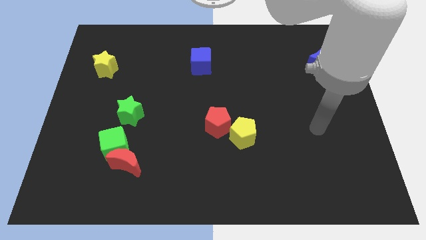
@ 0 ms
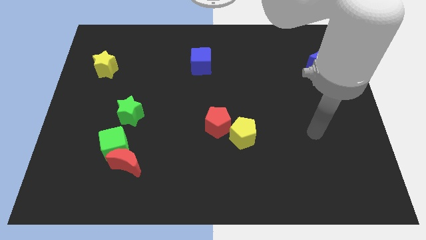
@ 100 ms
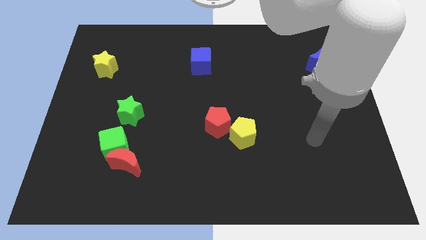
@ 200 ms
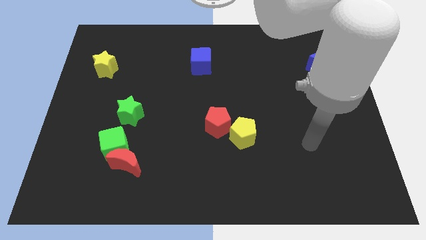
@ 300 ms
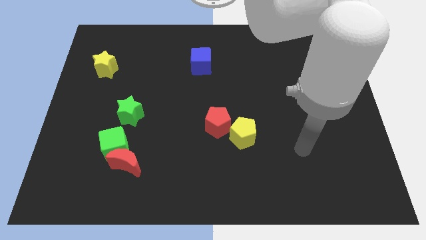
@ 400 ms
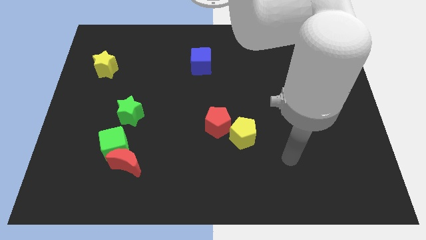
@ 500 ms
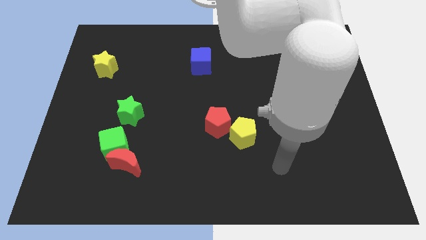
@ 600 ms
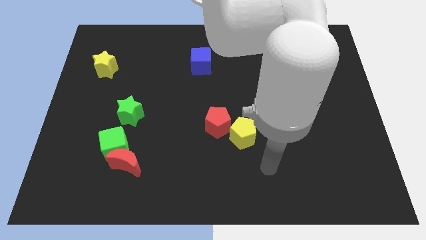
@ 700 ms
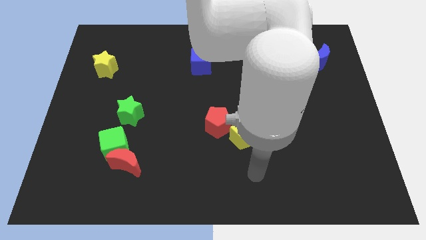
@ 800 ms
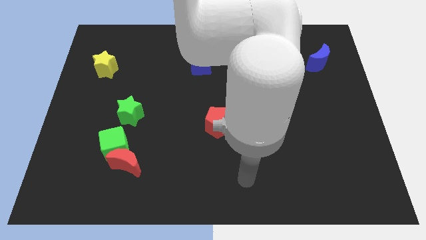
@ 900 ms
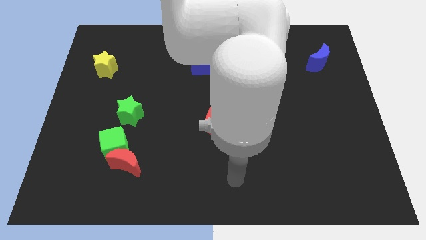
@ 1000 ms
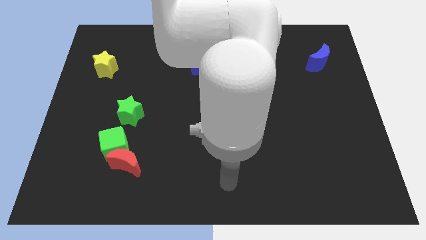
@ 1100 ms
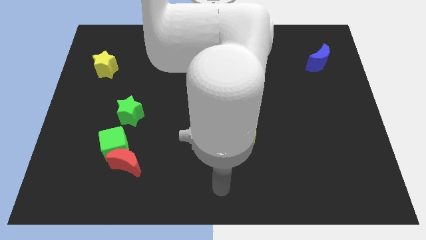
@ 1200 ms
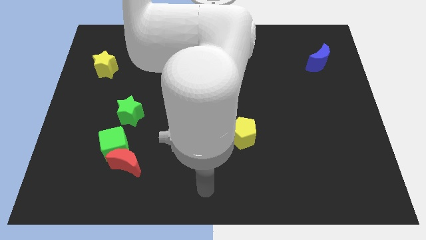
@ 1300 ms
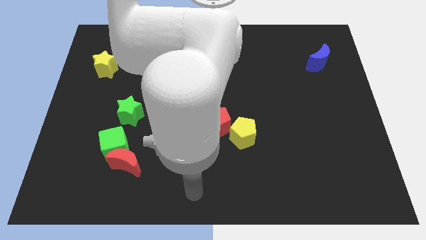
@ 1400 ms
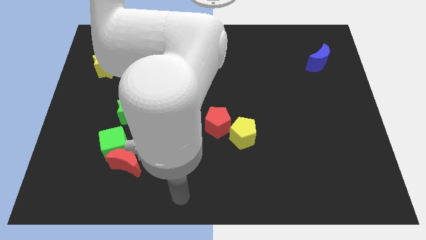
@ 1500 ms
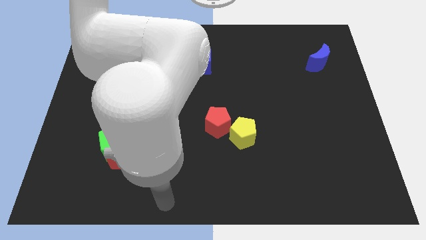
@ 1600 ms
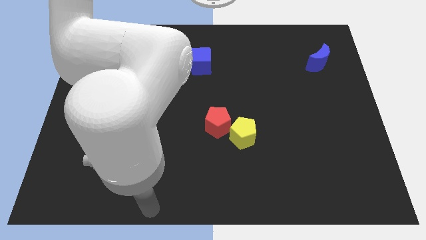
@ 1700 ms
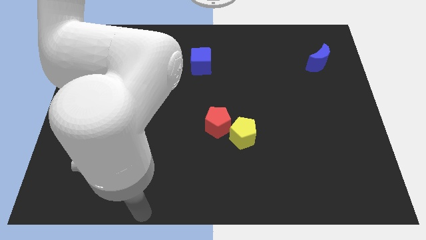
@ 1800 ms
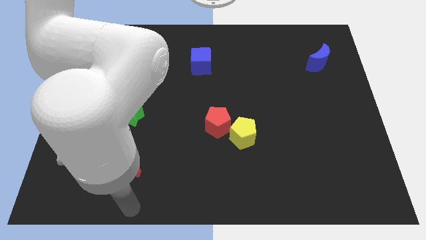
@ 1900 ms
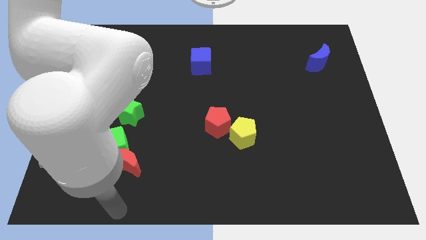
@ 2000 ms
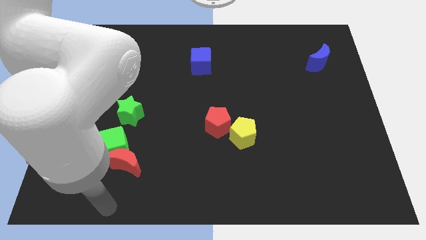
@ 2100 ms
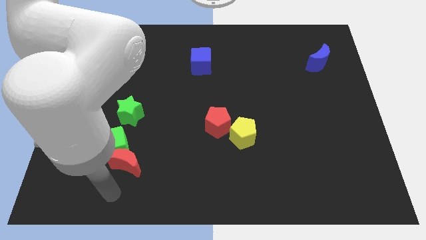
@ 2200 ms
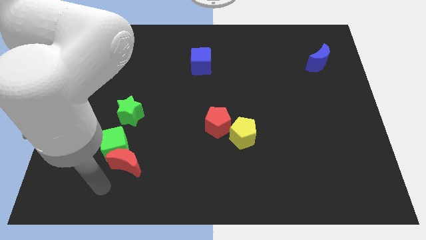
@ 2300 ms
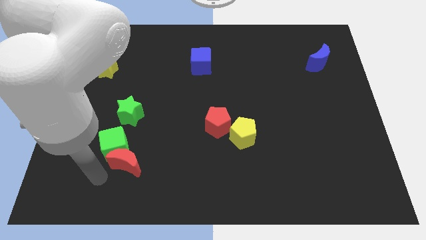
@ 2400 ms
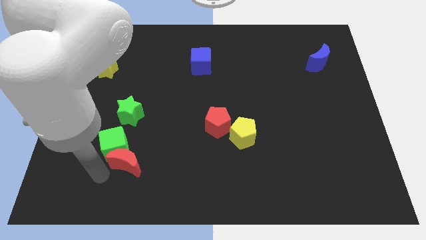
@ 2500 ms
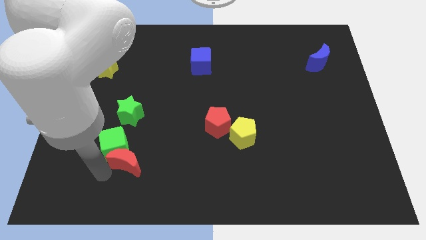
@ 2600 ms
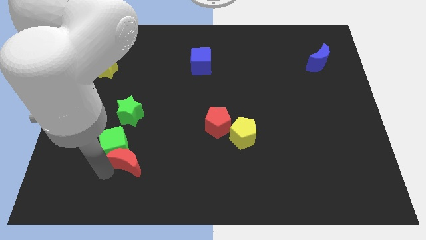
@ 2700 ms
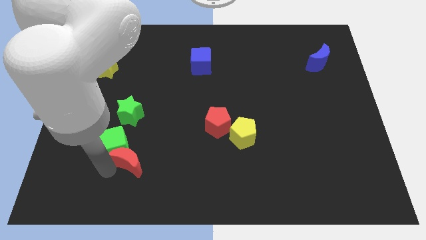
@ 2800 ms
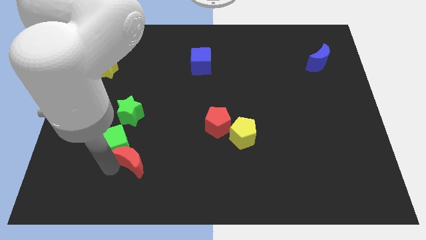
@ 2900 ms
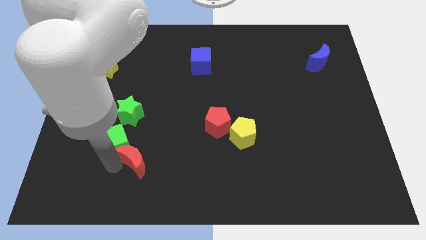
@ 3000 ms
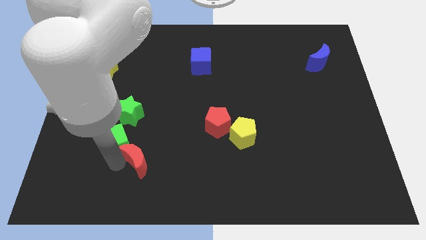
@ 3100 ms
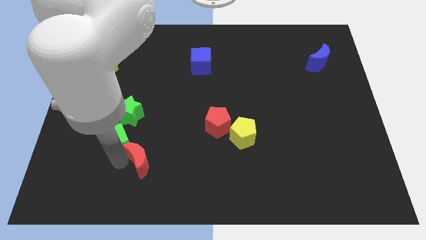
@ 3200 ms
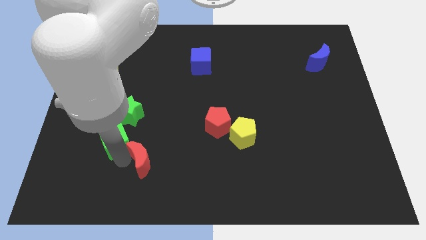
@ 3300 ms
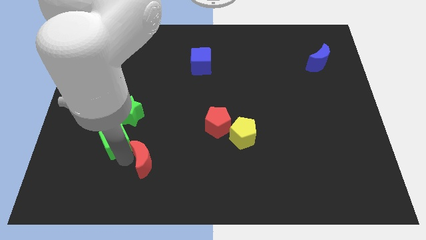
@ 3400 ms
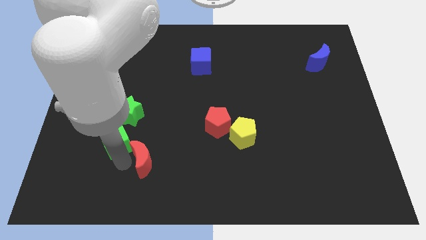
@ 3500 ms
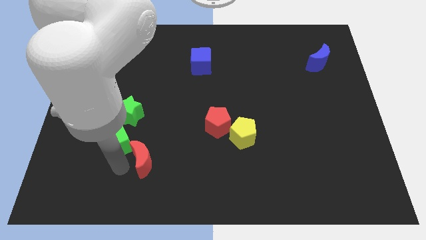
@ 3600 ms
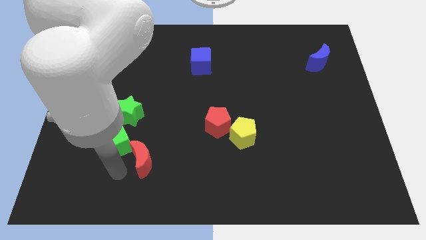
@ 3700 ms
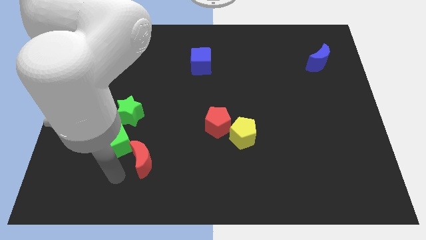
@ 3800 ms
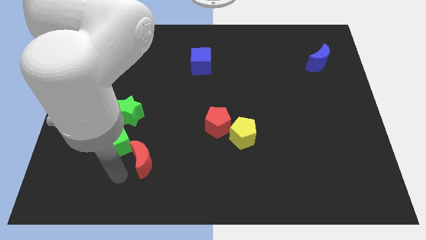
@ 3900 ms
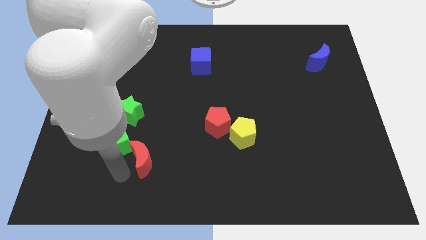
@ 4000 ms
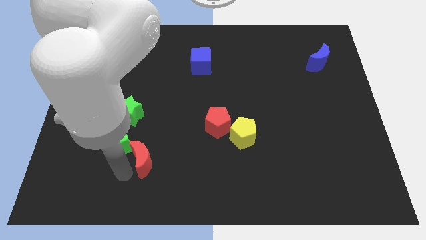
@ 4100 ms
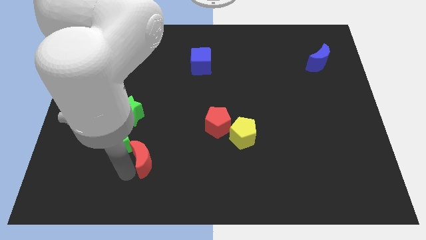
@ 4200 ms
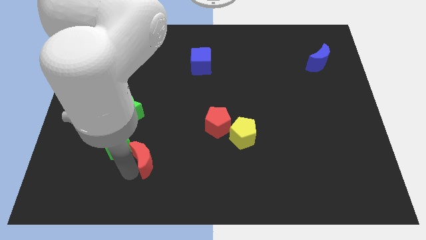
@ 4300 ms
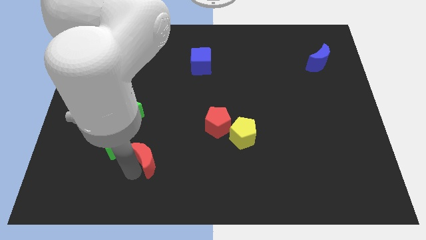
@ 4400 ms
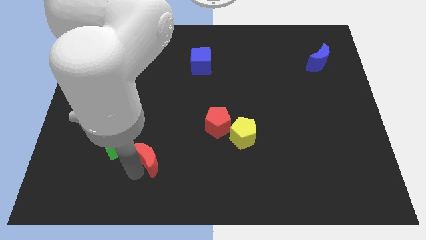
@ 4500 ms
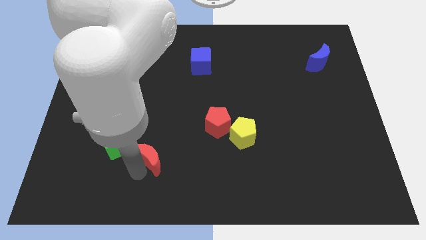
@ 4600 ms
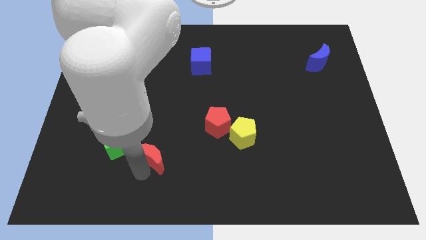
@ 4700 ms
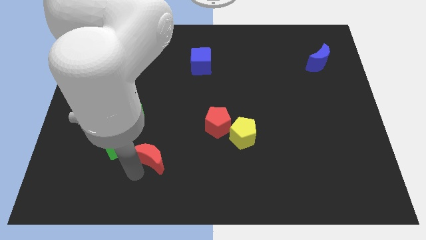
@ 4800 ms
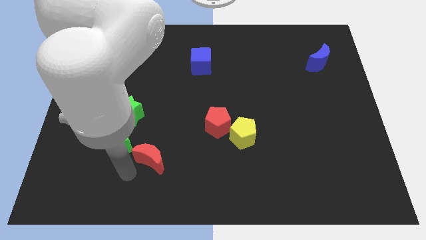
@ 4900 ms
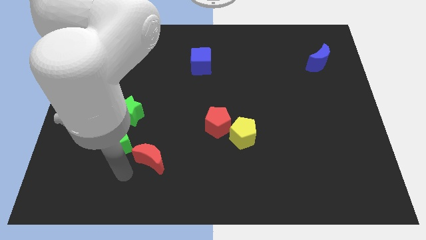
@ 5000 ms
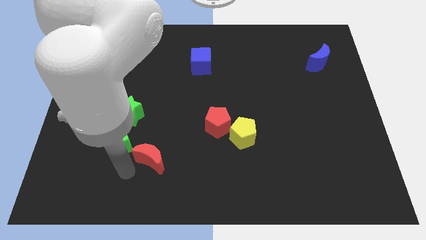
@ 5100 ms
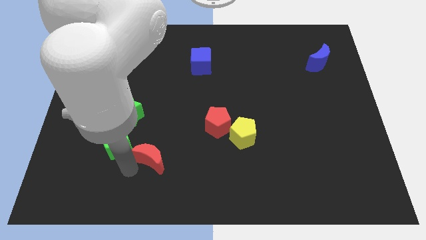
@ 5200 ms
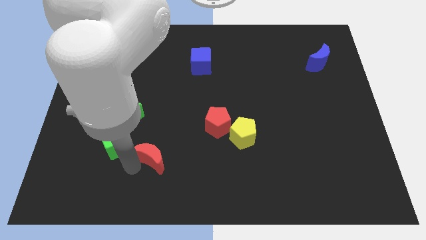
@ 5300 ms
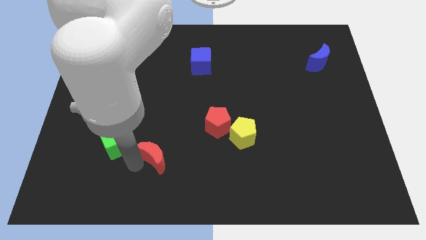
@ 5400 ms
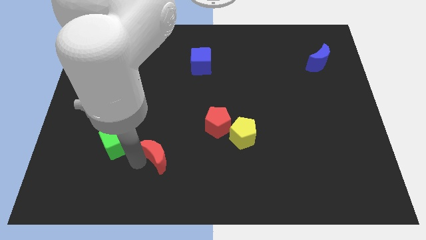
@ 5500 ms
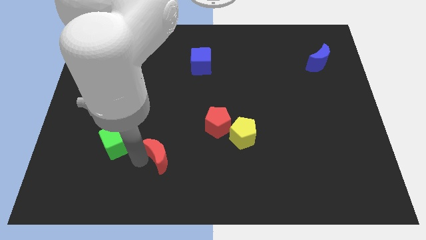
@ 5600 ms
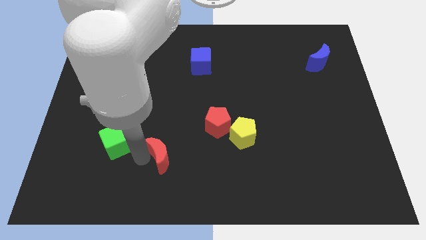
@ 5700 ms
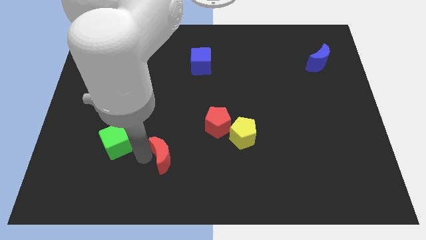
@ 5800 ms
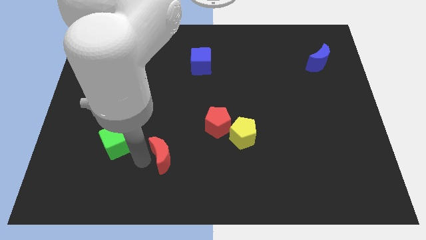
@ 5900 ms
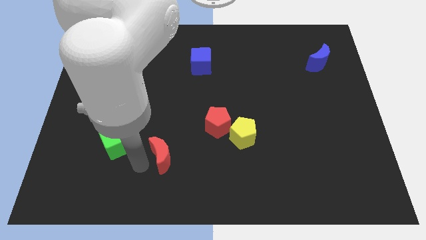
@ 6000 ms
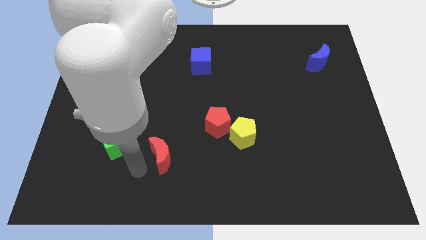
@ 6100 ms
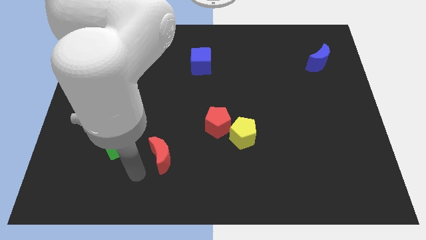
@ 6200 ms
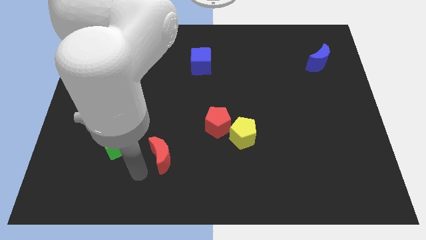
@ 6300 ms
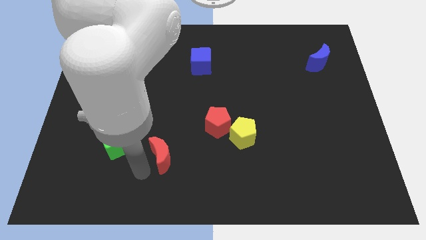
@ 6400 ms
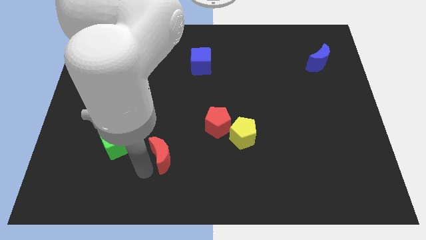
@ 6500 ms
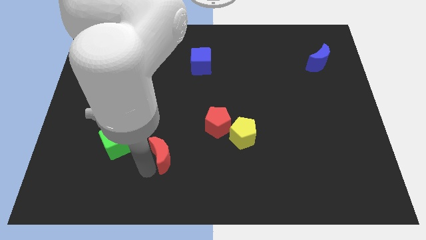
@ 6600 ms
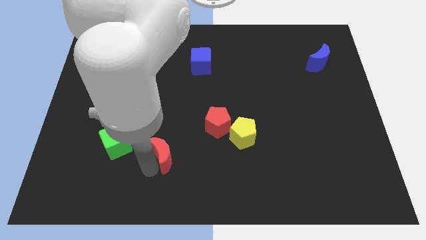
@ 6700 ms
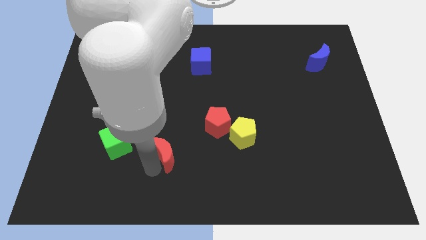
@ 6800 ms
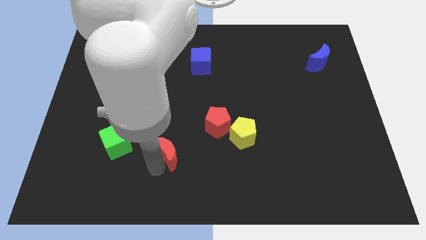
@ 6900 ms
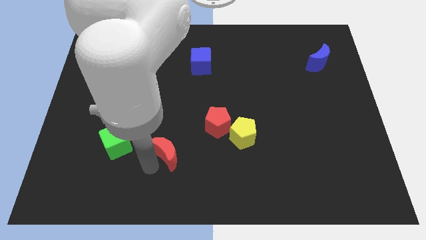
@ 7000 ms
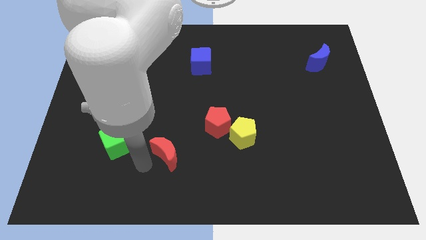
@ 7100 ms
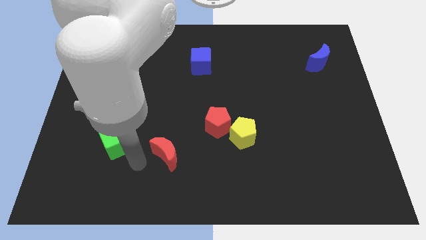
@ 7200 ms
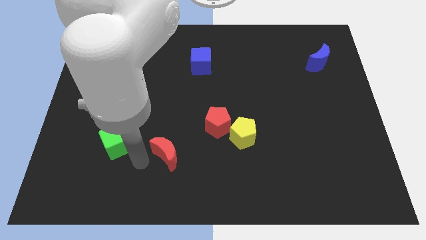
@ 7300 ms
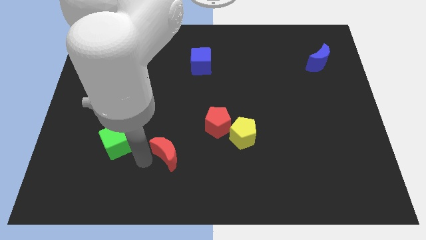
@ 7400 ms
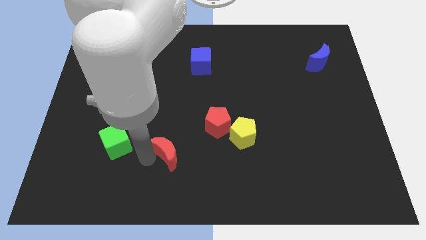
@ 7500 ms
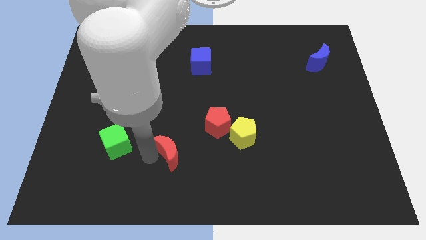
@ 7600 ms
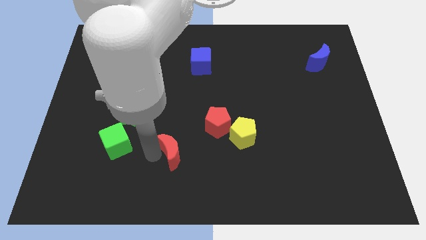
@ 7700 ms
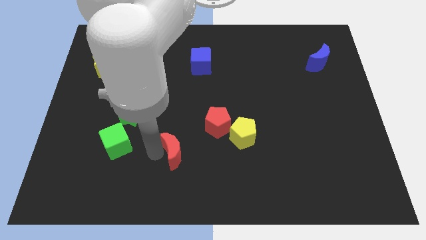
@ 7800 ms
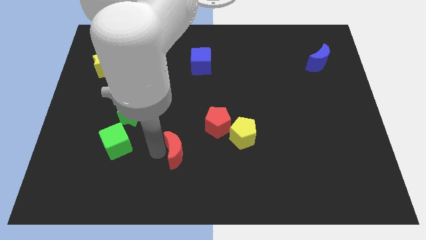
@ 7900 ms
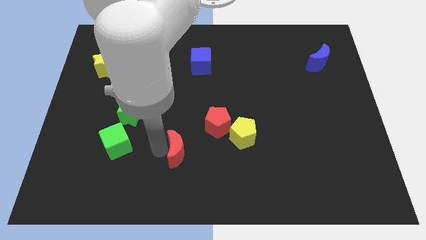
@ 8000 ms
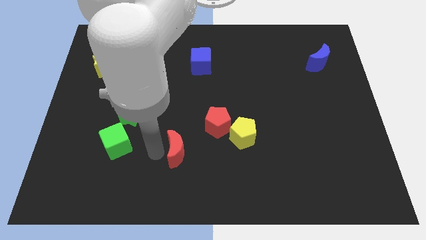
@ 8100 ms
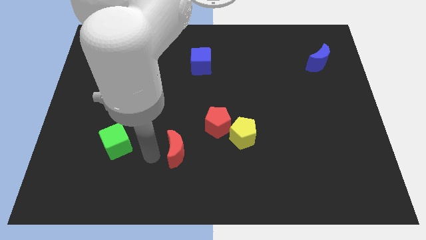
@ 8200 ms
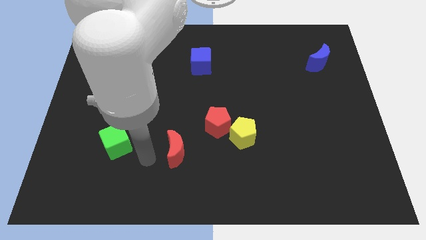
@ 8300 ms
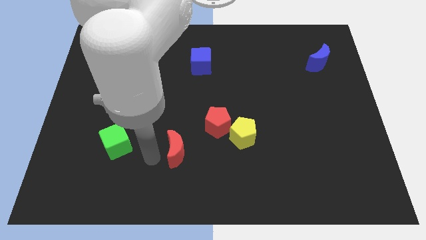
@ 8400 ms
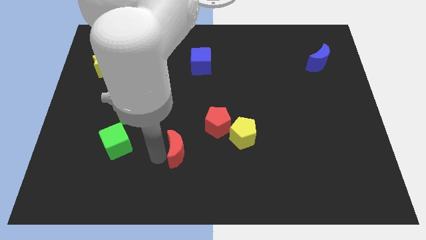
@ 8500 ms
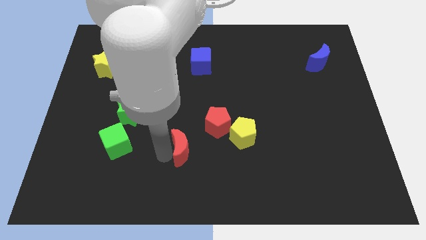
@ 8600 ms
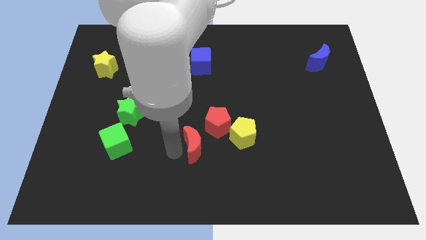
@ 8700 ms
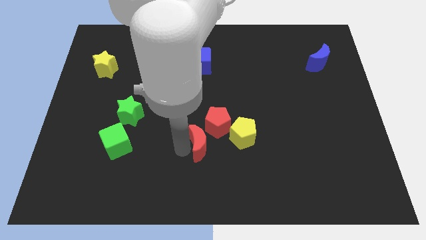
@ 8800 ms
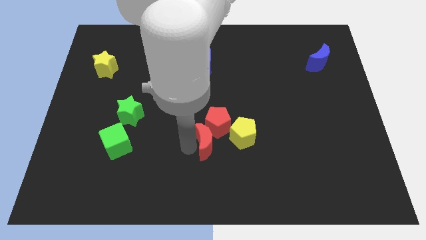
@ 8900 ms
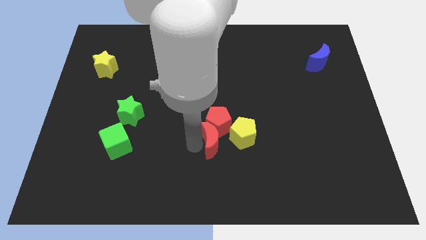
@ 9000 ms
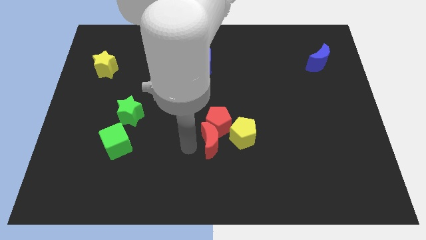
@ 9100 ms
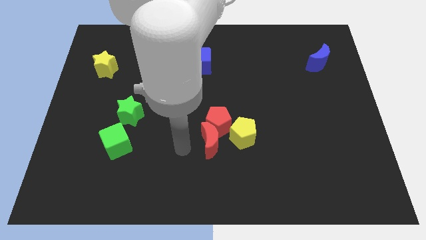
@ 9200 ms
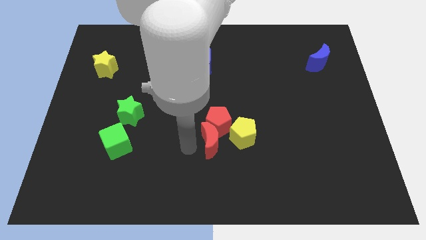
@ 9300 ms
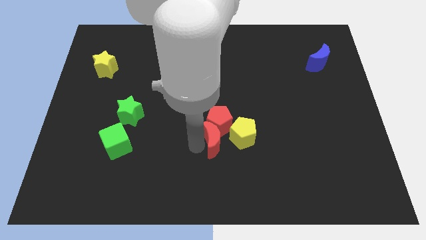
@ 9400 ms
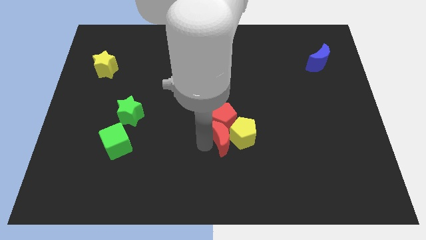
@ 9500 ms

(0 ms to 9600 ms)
push the red moon to the yellow pentagon
